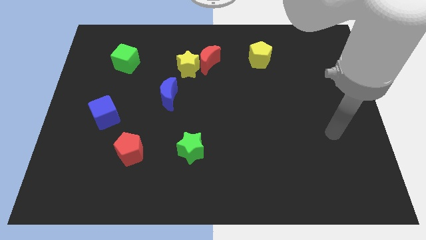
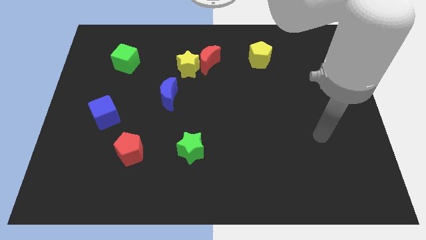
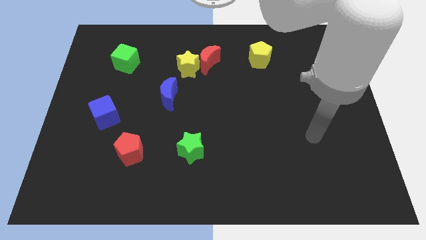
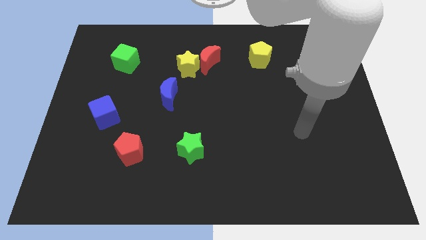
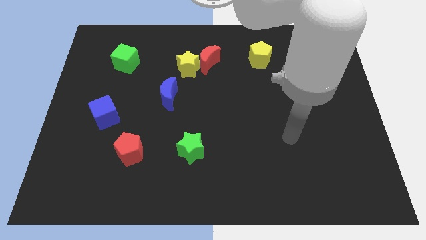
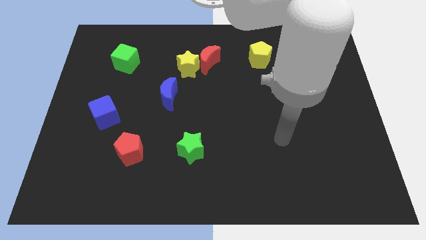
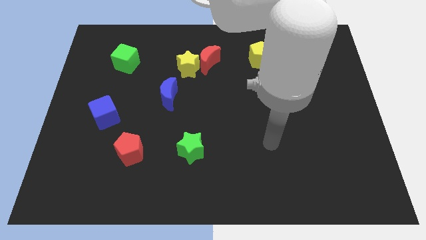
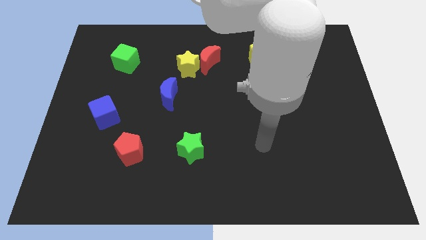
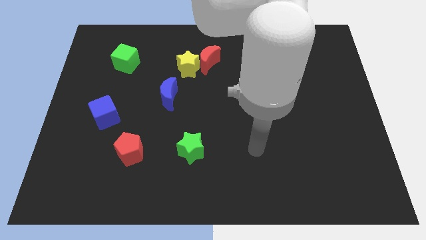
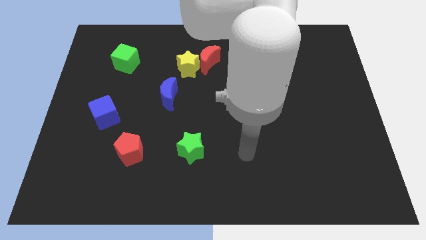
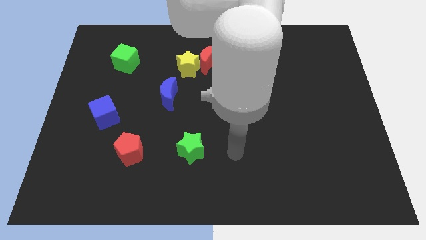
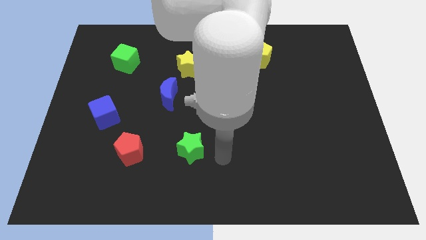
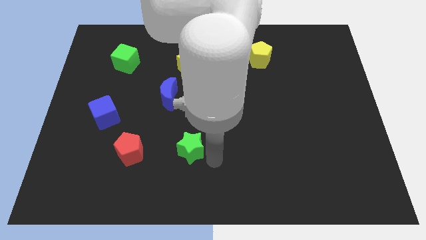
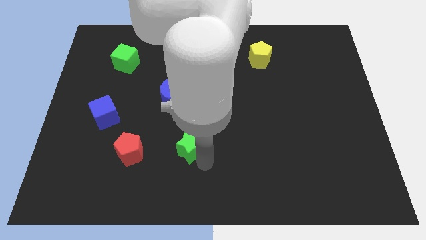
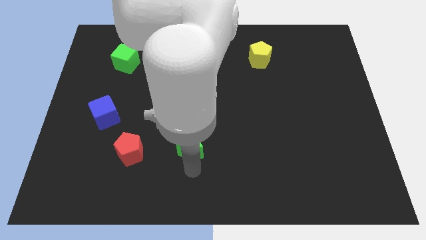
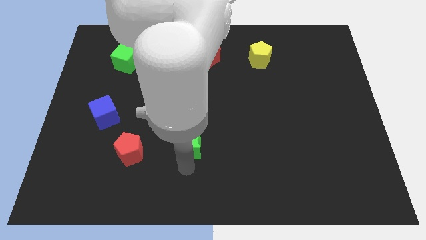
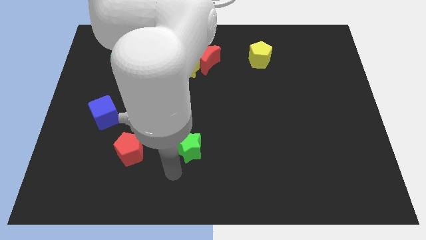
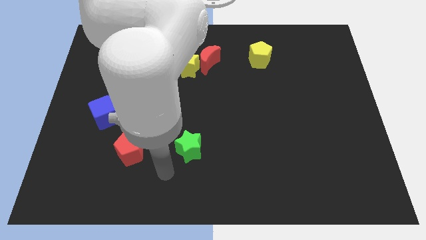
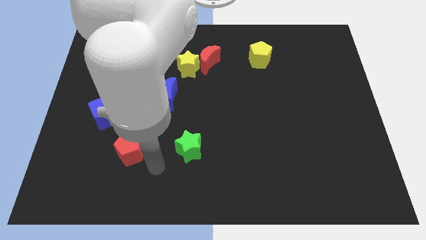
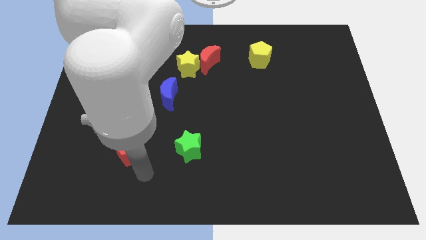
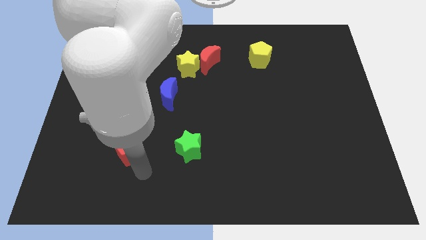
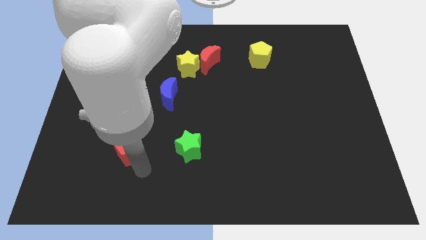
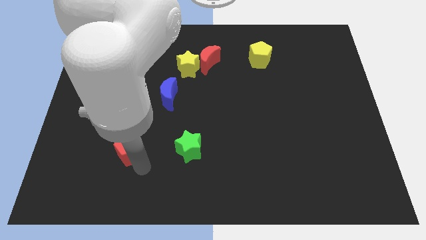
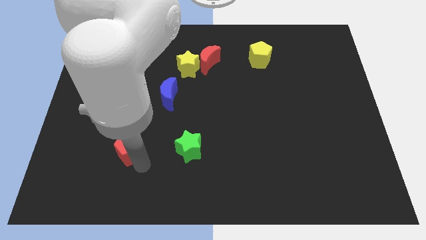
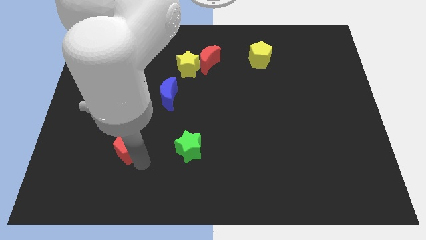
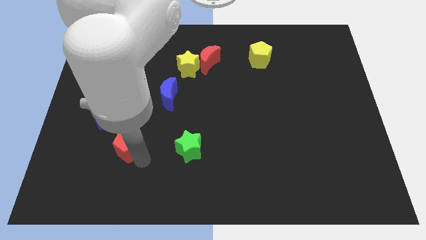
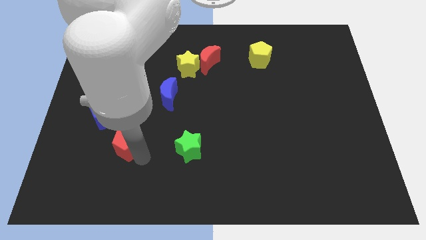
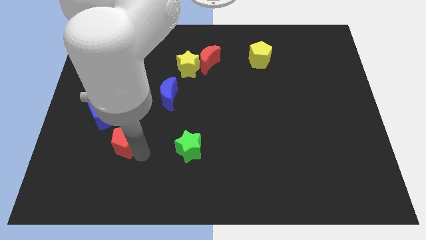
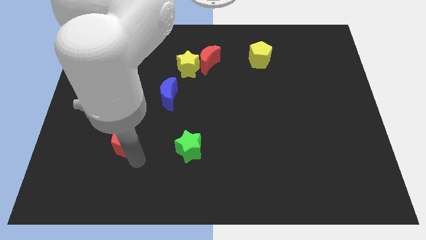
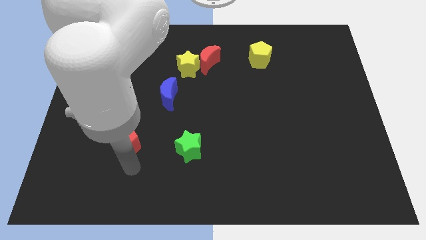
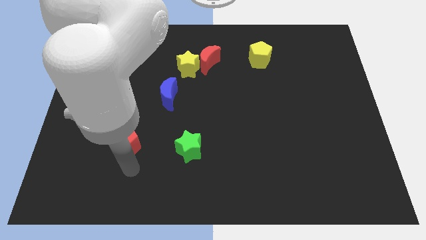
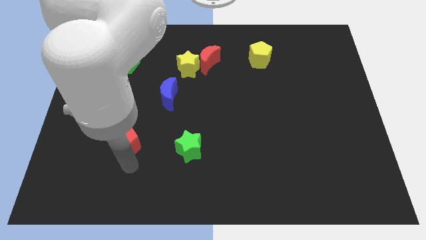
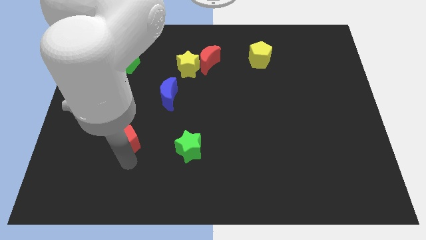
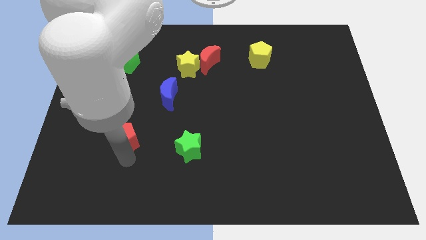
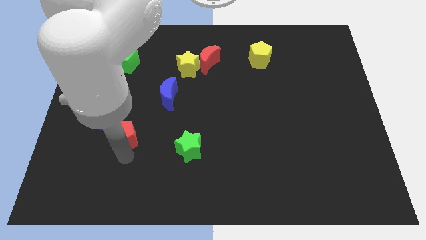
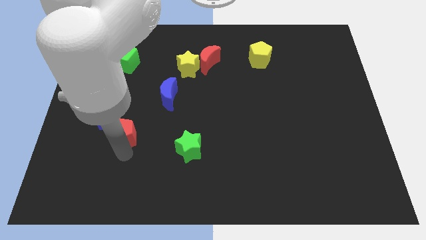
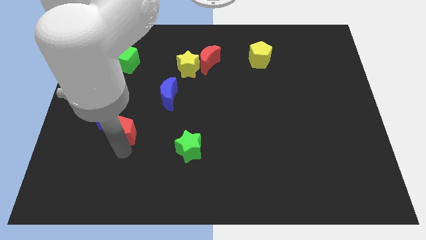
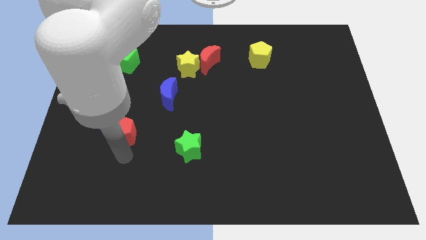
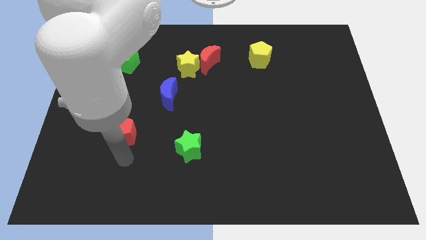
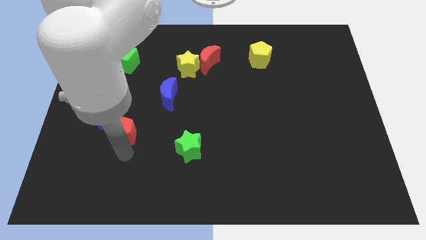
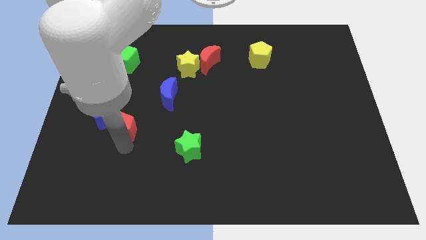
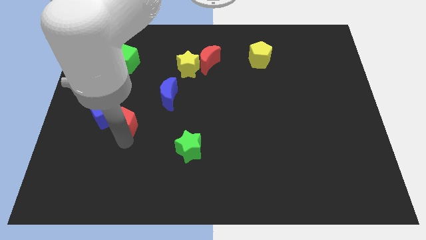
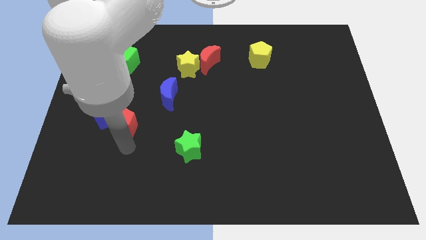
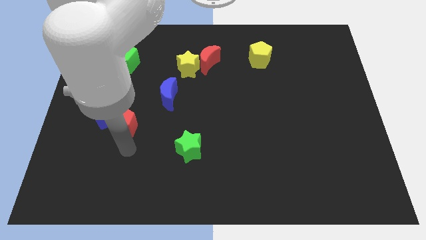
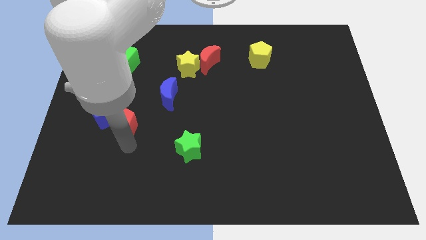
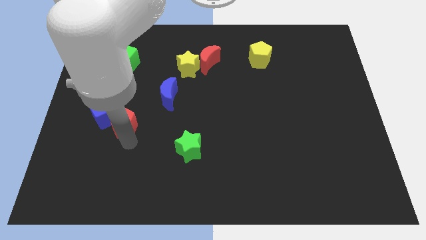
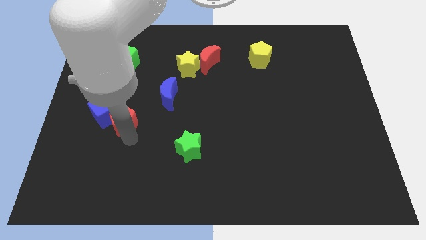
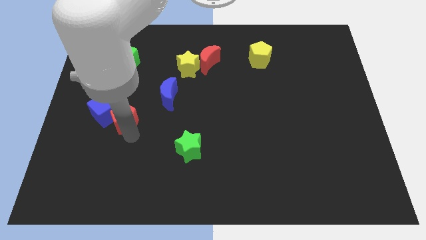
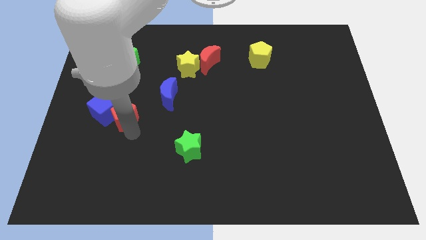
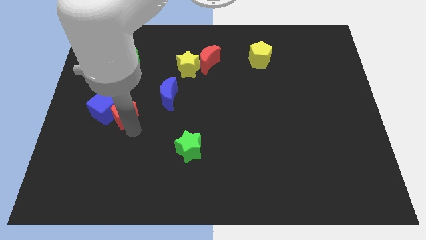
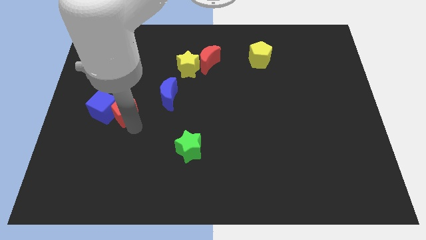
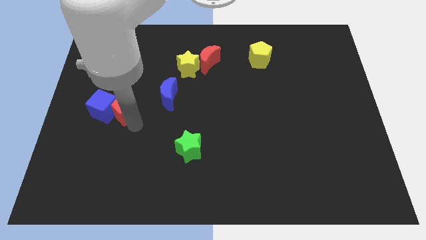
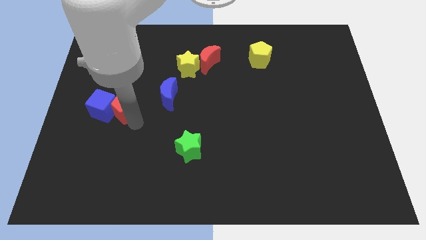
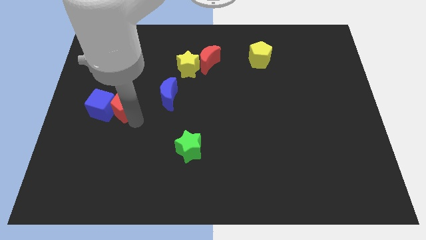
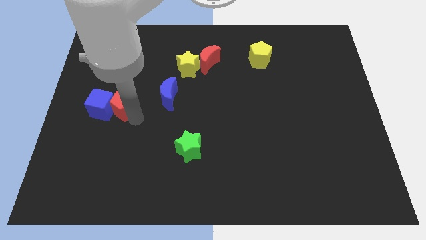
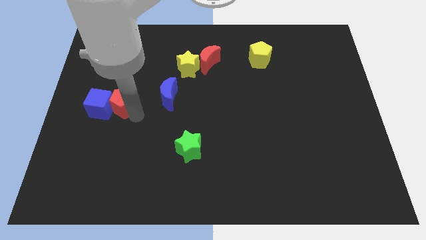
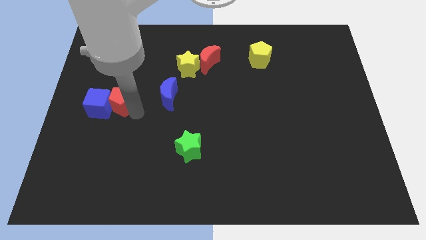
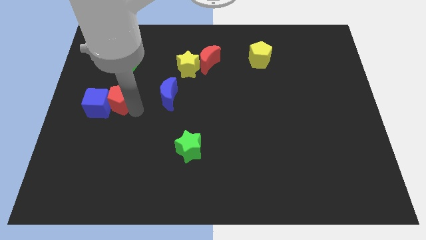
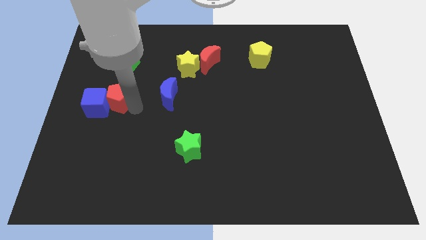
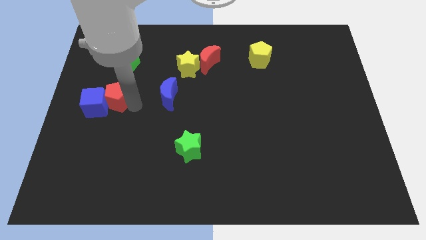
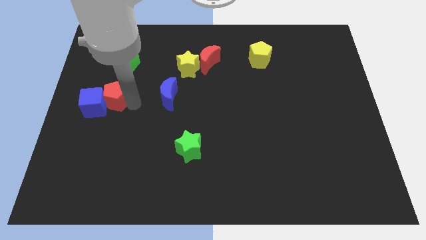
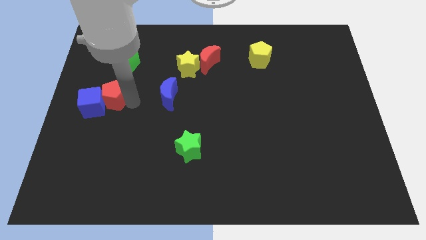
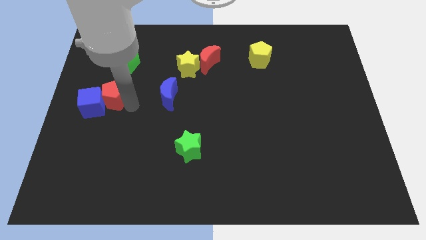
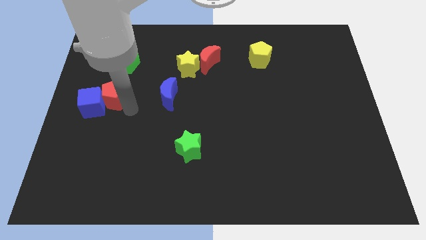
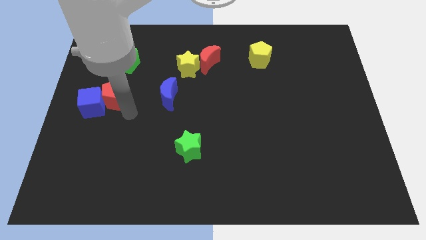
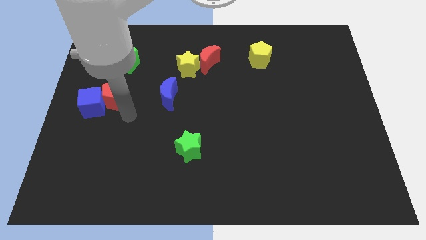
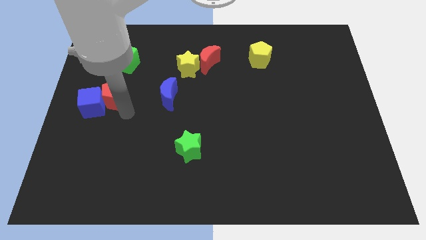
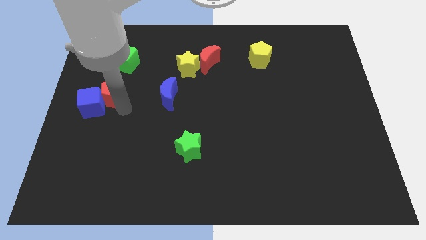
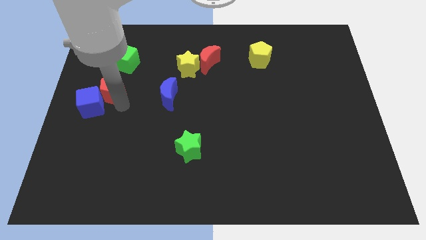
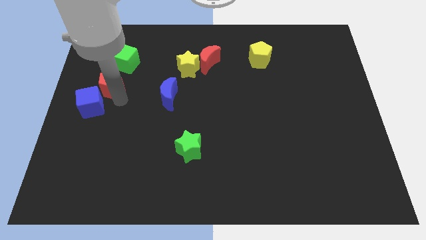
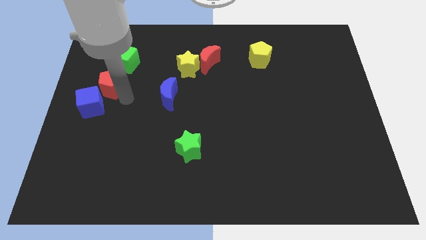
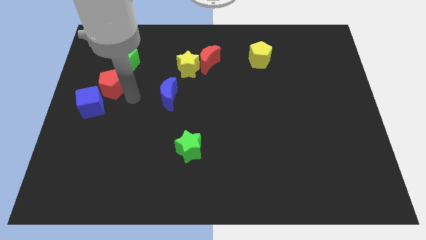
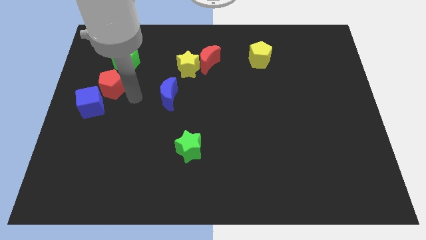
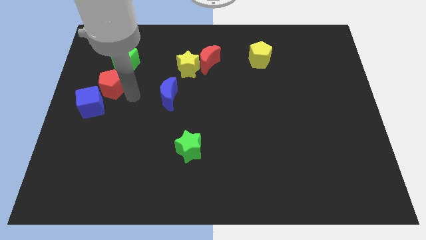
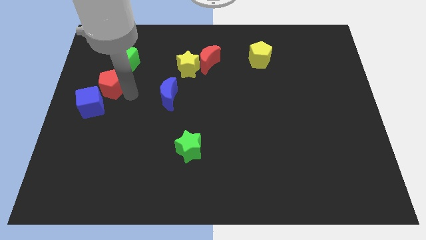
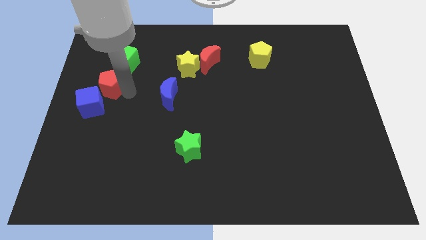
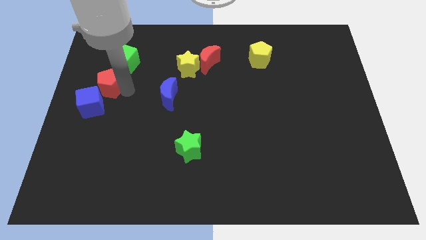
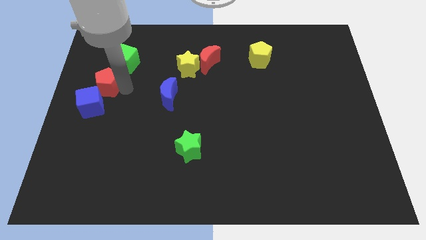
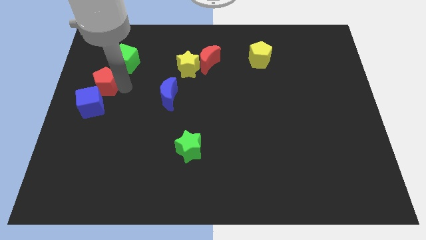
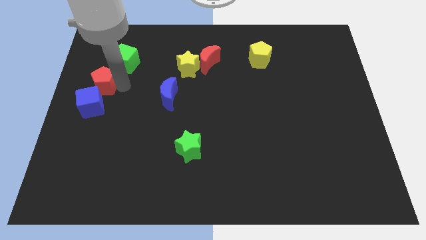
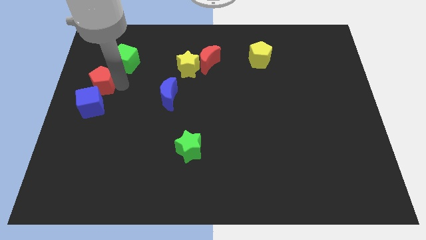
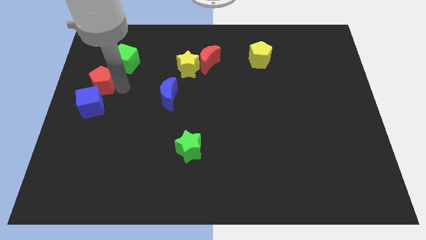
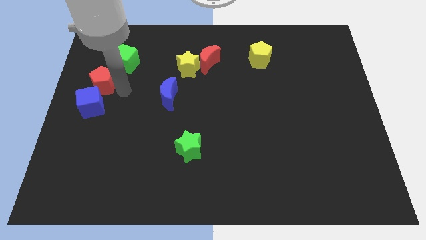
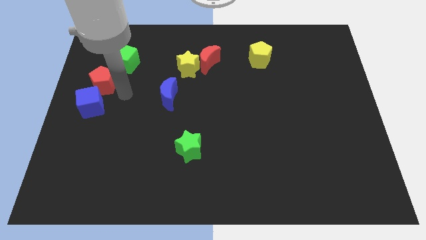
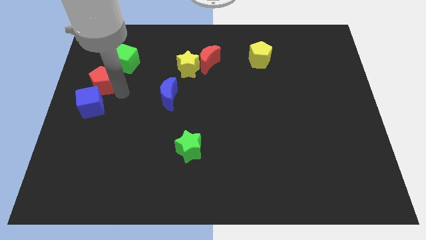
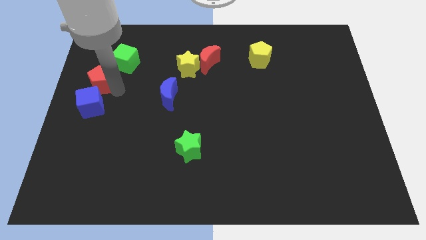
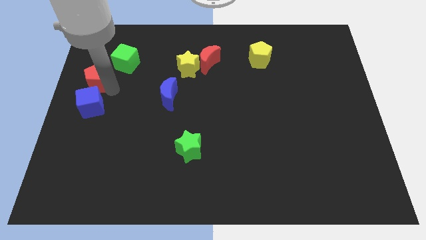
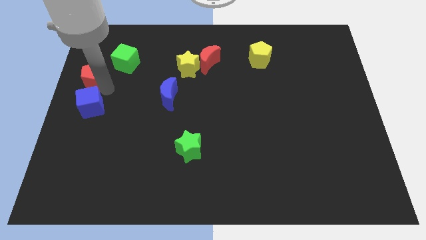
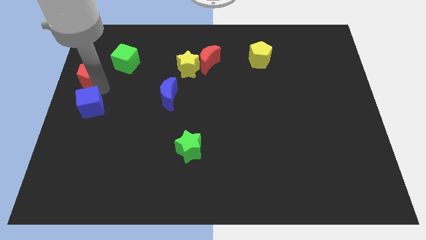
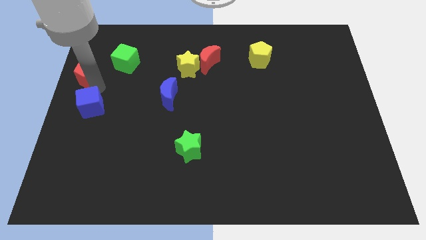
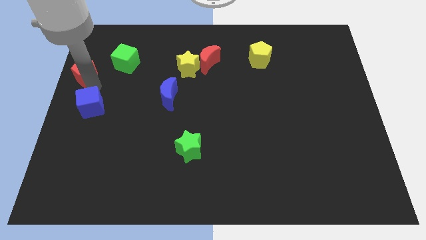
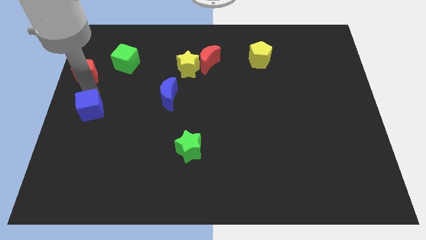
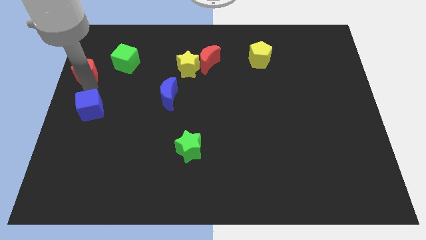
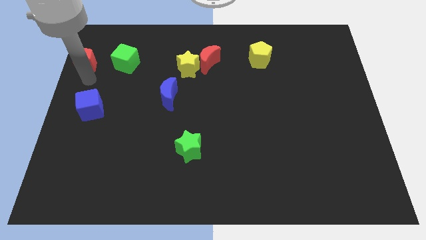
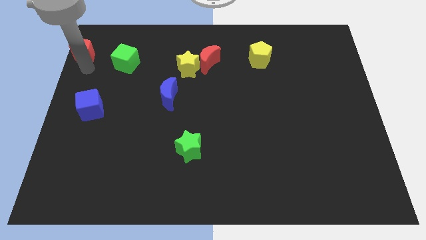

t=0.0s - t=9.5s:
put the red pentagon to the top left
